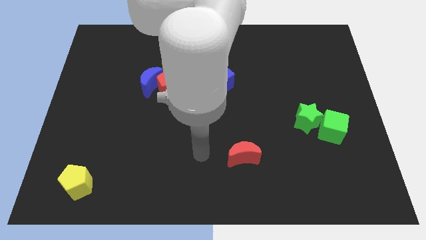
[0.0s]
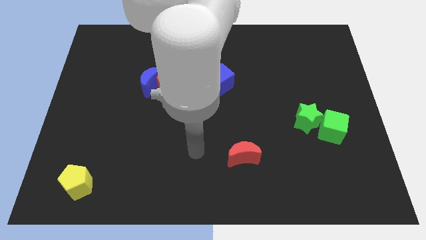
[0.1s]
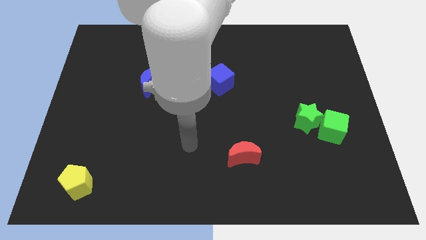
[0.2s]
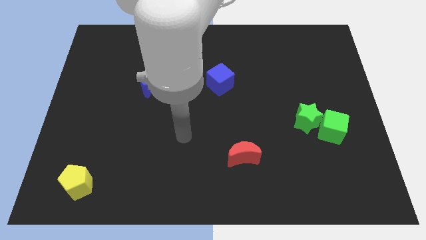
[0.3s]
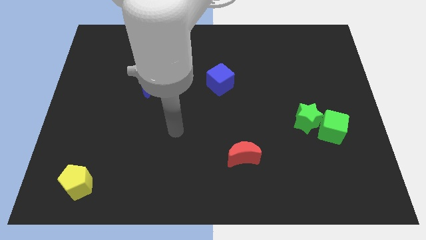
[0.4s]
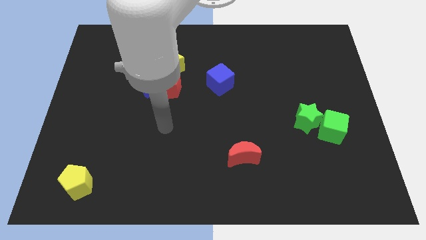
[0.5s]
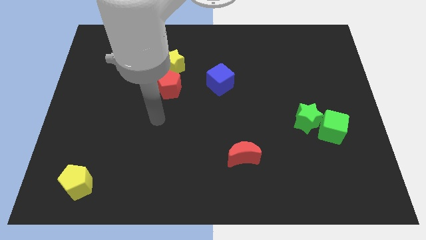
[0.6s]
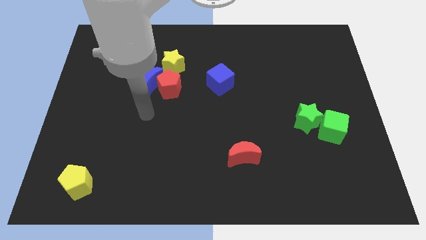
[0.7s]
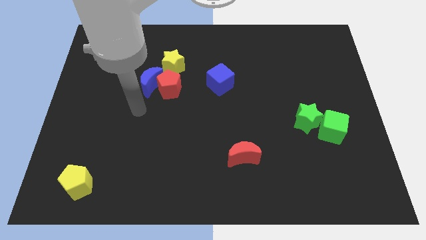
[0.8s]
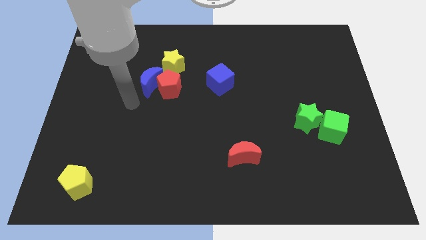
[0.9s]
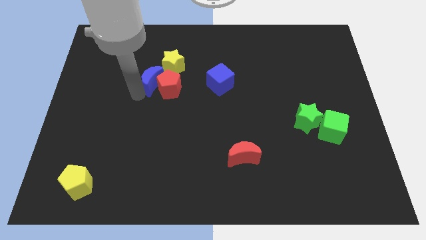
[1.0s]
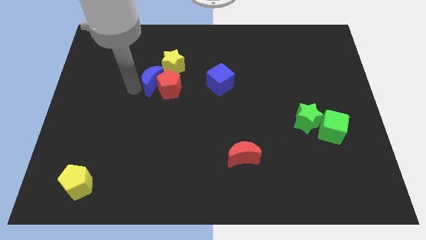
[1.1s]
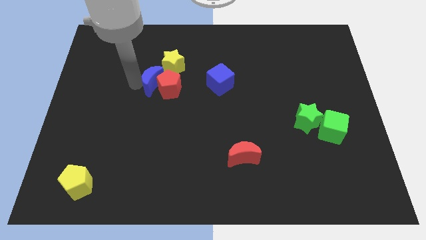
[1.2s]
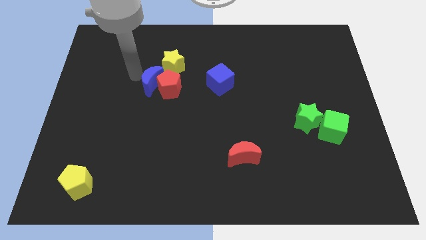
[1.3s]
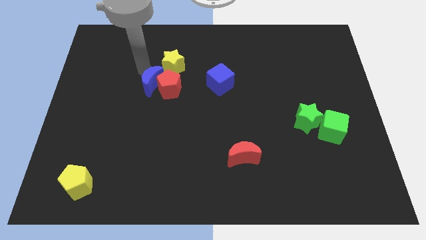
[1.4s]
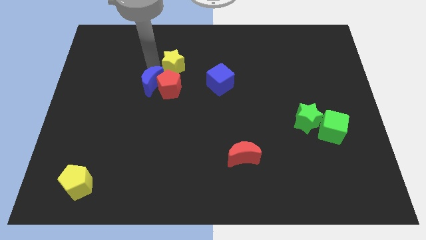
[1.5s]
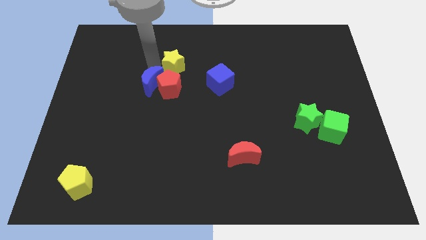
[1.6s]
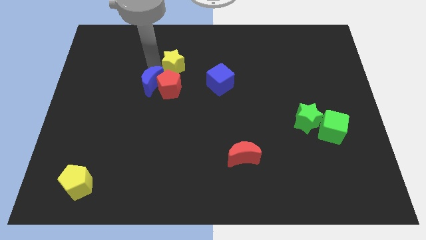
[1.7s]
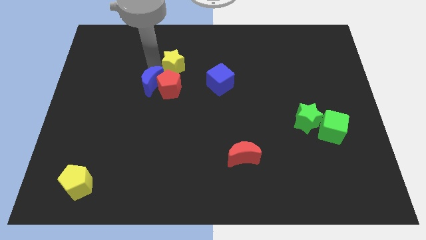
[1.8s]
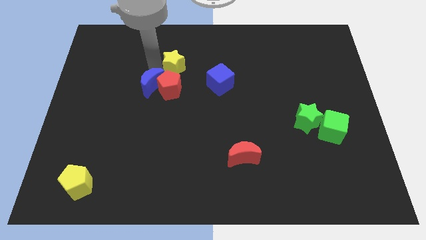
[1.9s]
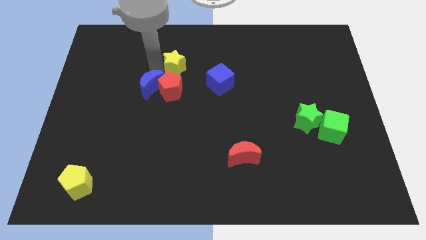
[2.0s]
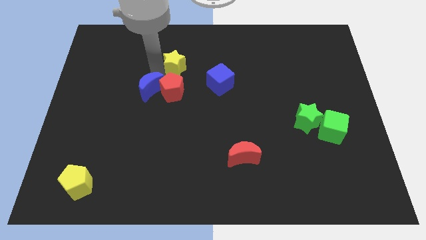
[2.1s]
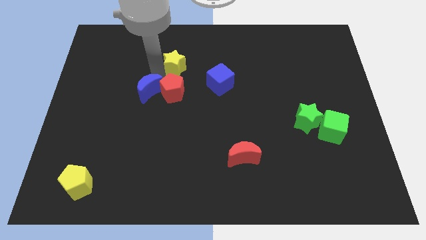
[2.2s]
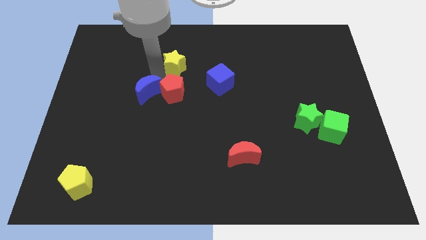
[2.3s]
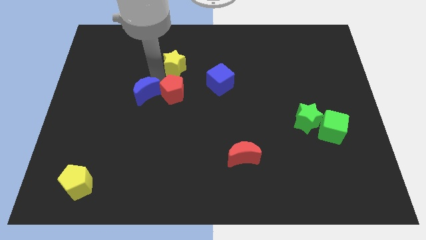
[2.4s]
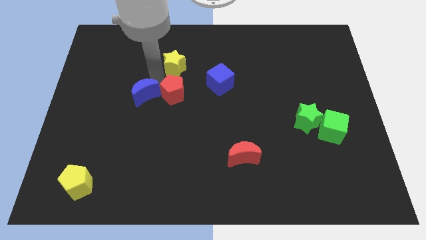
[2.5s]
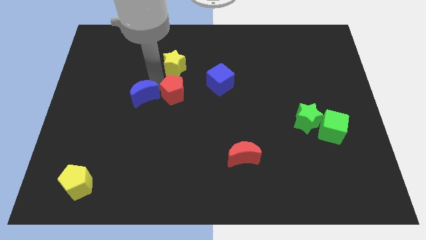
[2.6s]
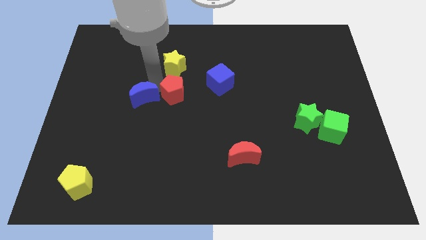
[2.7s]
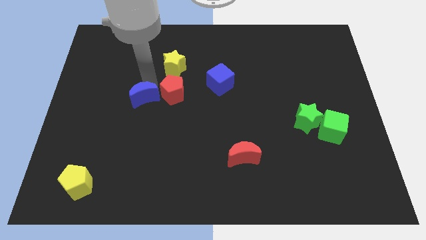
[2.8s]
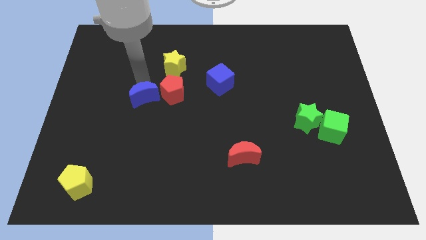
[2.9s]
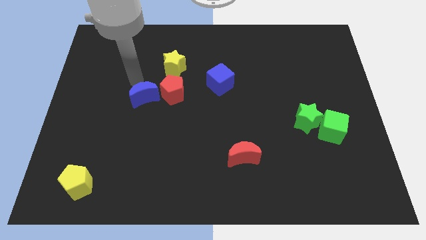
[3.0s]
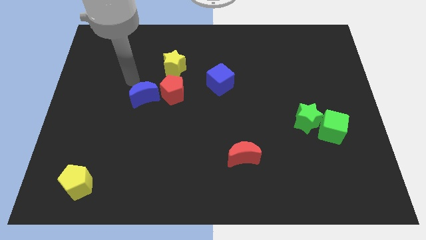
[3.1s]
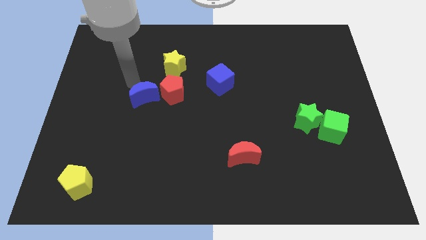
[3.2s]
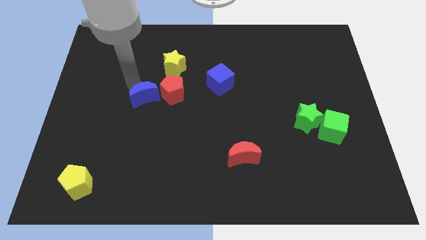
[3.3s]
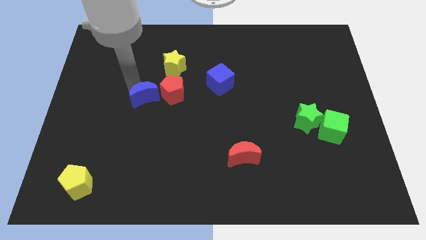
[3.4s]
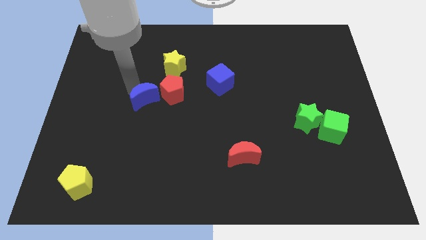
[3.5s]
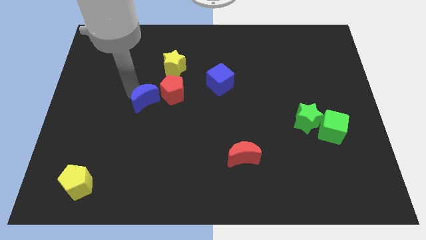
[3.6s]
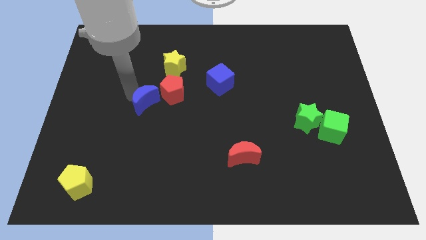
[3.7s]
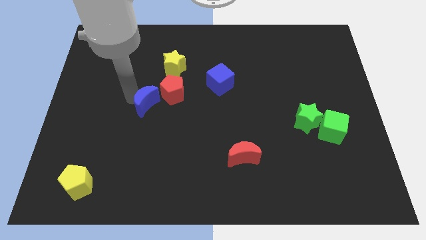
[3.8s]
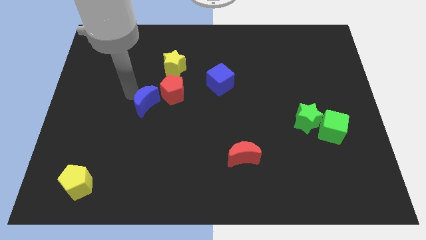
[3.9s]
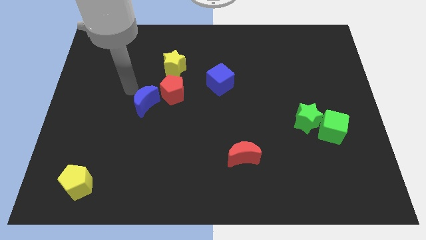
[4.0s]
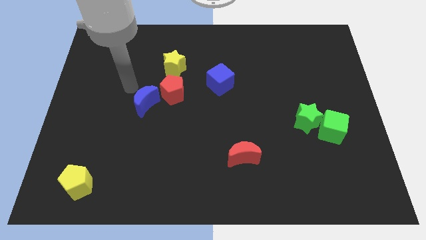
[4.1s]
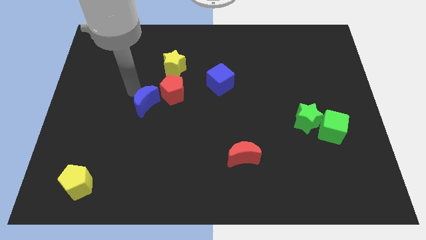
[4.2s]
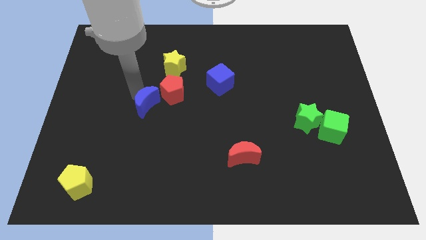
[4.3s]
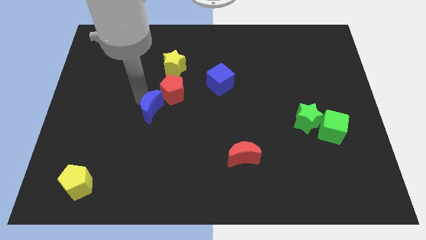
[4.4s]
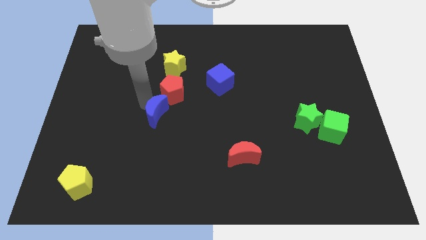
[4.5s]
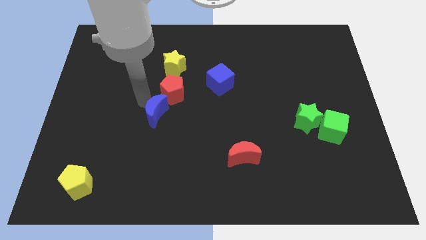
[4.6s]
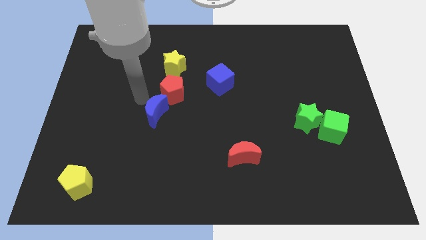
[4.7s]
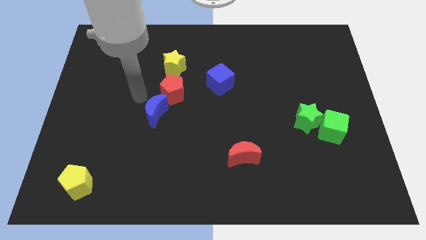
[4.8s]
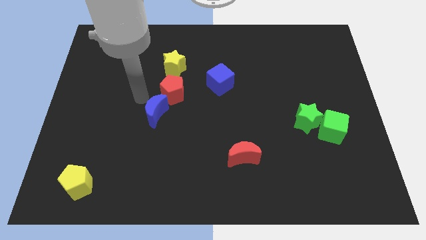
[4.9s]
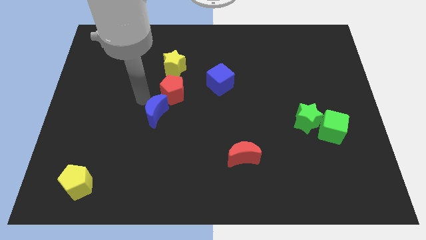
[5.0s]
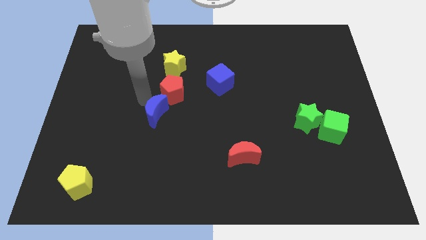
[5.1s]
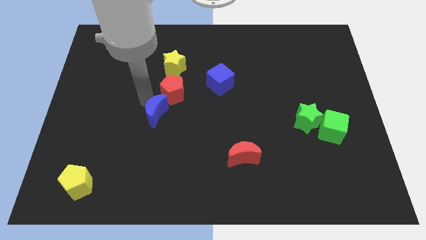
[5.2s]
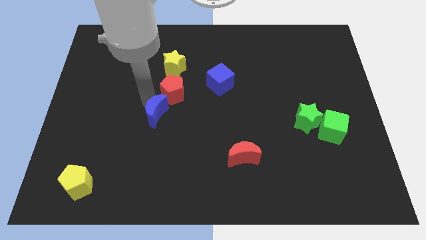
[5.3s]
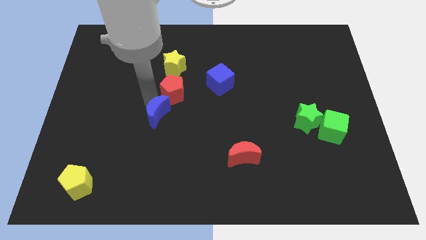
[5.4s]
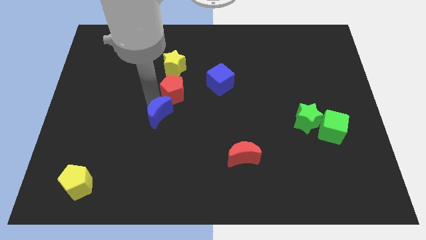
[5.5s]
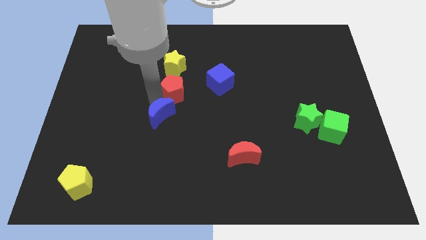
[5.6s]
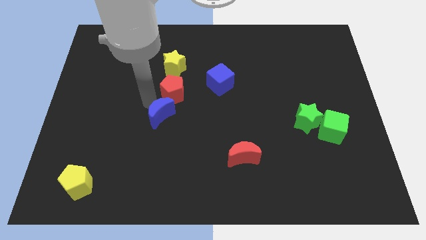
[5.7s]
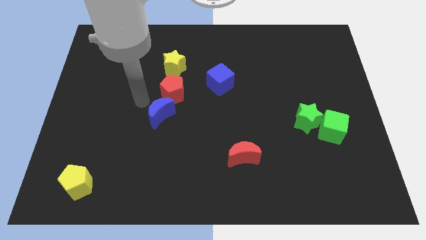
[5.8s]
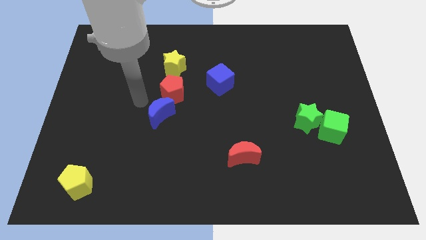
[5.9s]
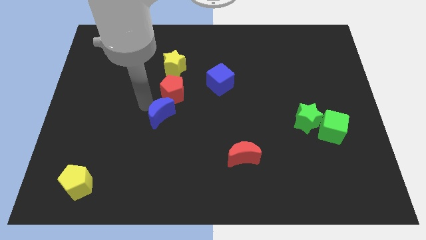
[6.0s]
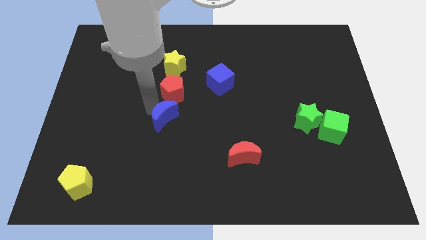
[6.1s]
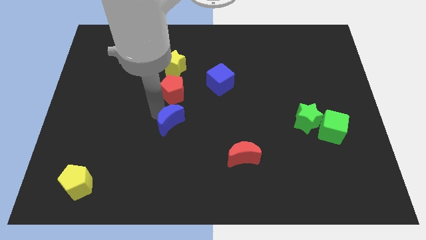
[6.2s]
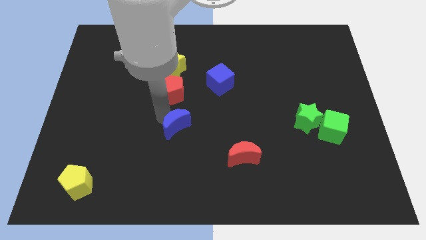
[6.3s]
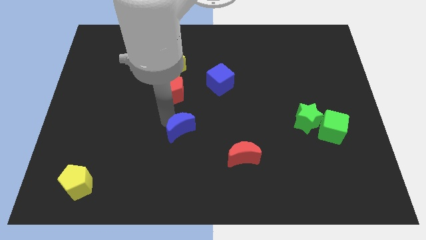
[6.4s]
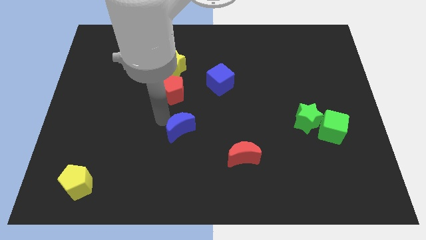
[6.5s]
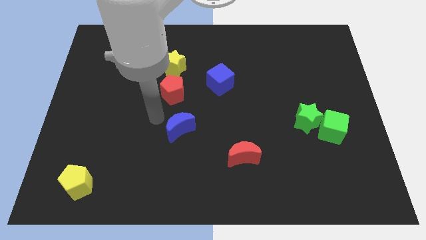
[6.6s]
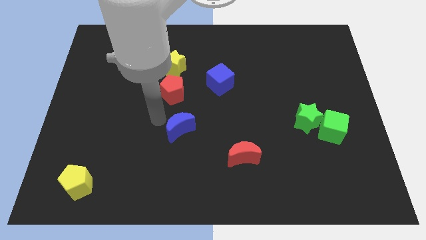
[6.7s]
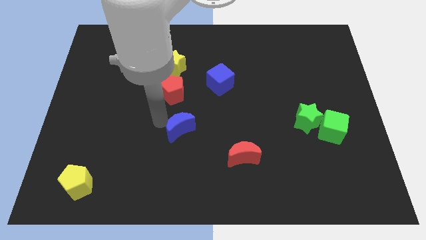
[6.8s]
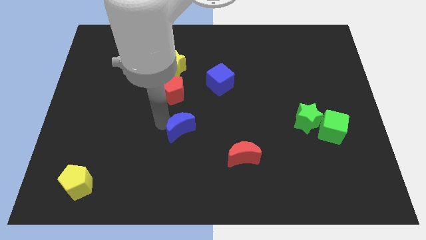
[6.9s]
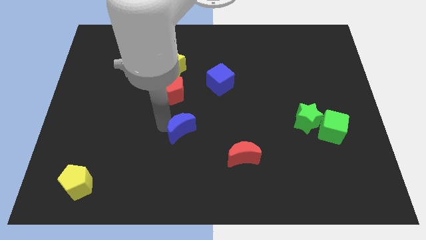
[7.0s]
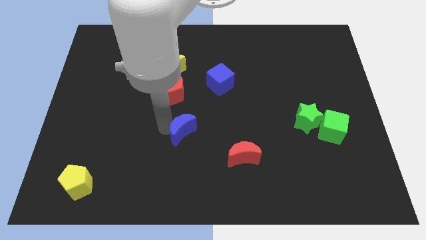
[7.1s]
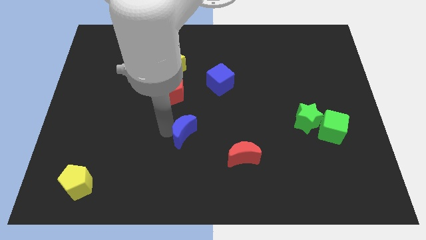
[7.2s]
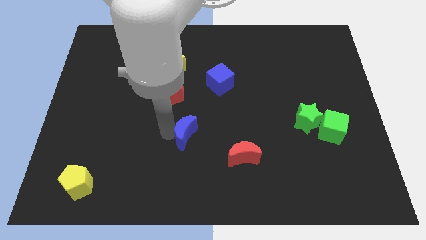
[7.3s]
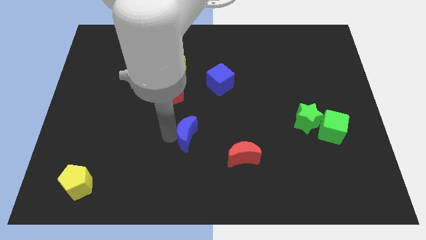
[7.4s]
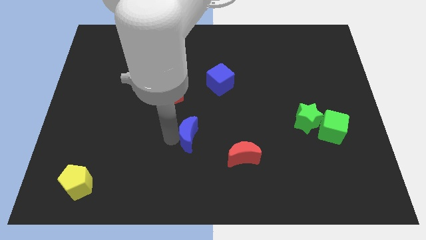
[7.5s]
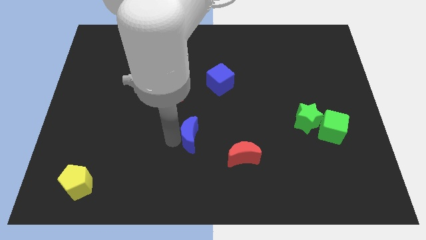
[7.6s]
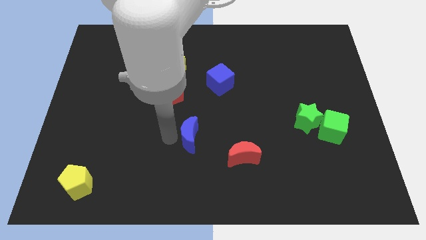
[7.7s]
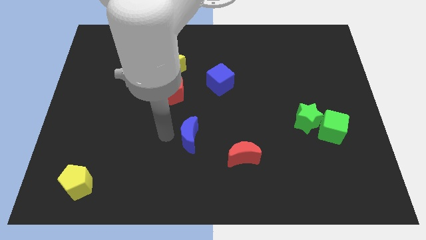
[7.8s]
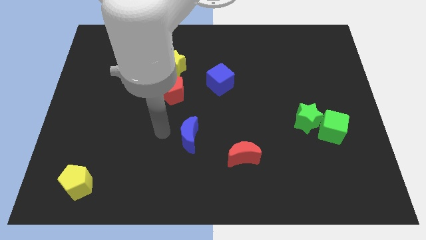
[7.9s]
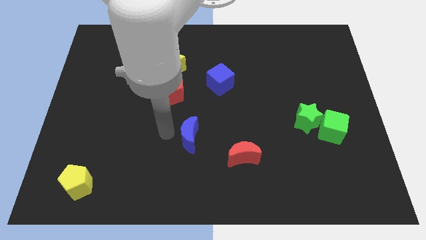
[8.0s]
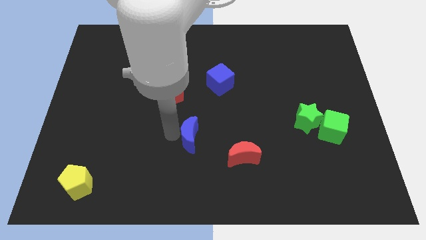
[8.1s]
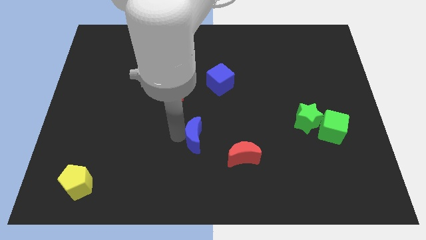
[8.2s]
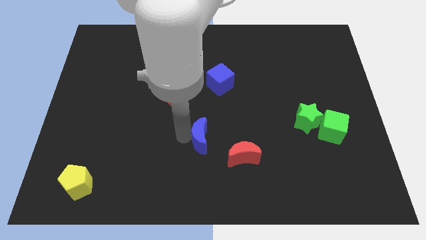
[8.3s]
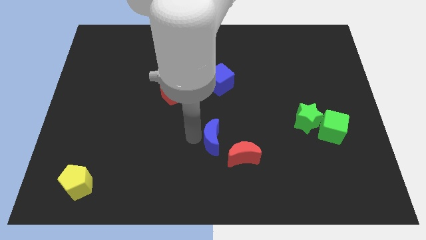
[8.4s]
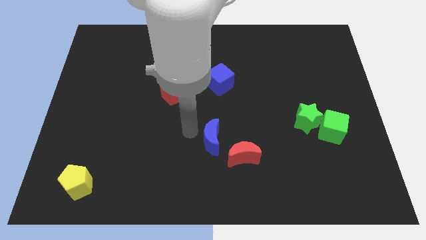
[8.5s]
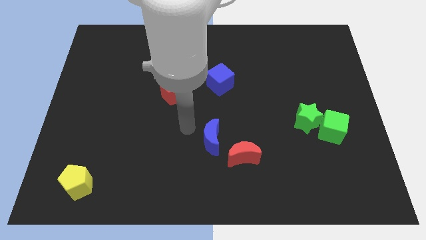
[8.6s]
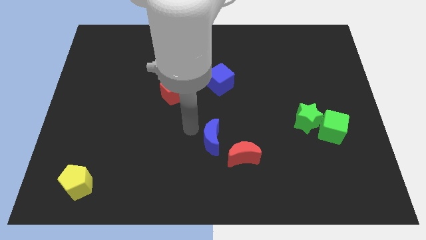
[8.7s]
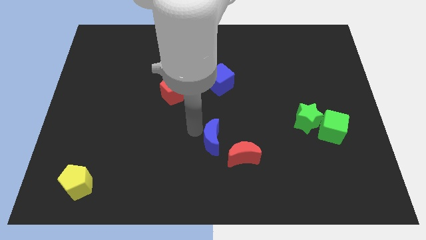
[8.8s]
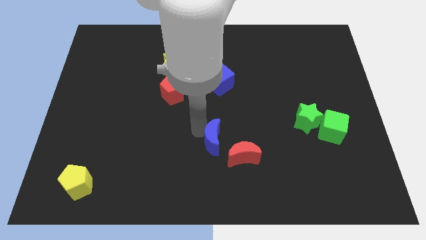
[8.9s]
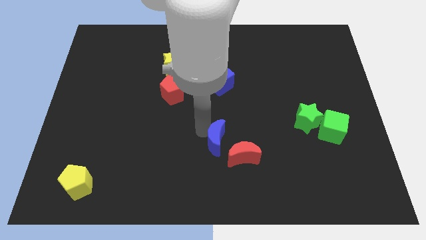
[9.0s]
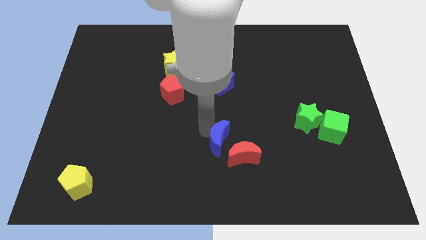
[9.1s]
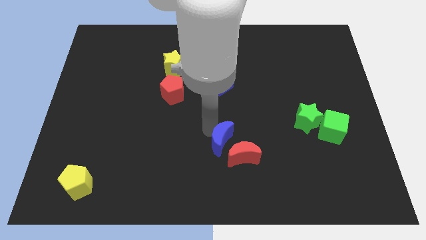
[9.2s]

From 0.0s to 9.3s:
push the blue moon next to the red moon
